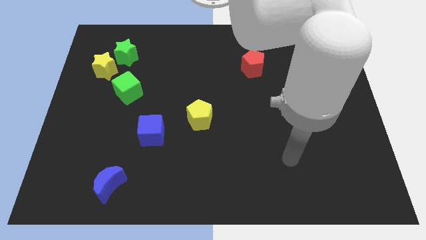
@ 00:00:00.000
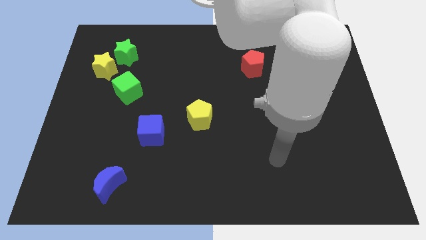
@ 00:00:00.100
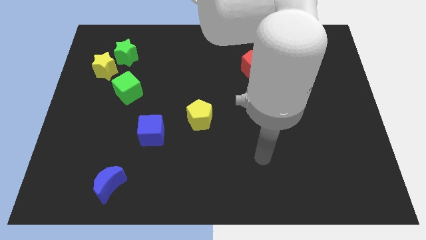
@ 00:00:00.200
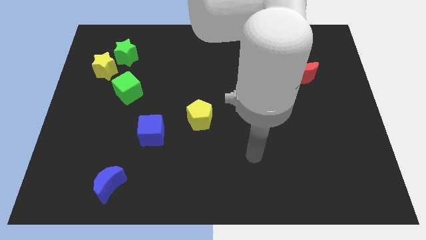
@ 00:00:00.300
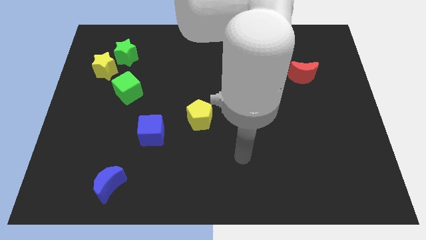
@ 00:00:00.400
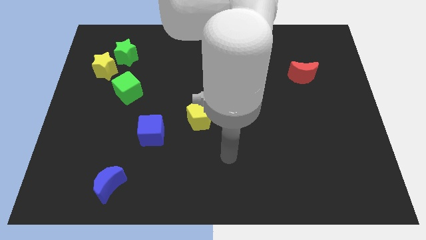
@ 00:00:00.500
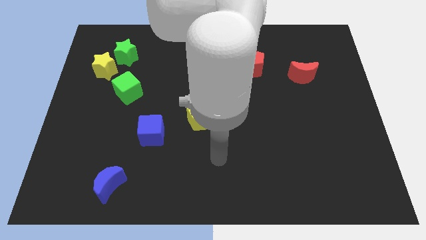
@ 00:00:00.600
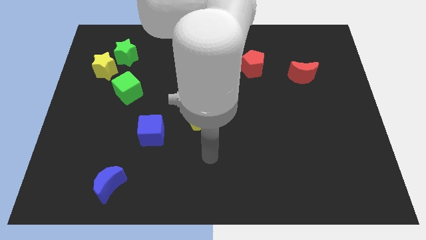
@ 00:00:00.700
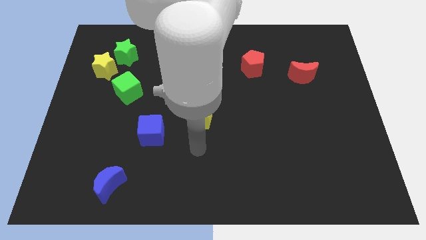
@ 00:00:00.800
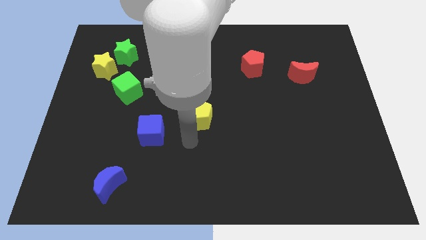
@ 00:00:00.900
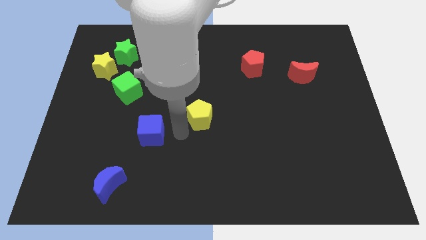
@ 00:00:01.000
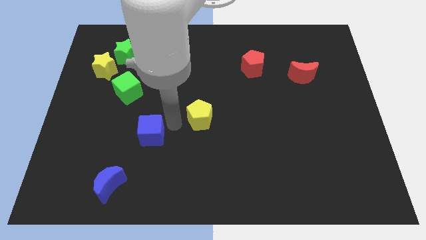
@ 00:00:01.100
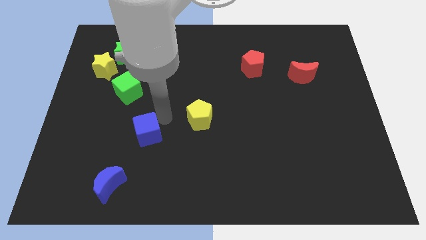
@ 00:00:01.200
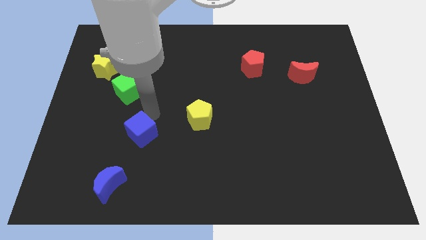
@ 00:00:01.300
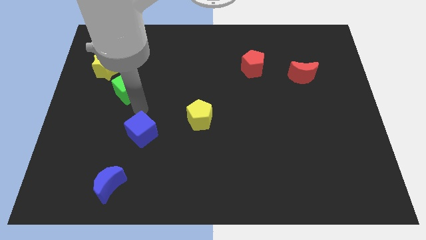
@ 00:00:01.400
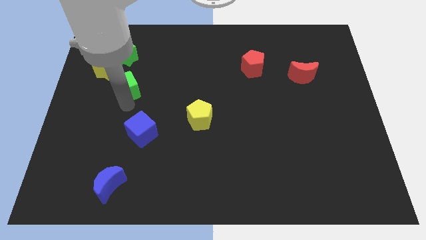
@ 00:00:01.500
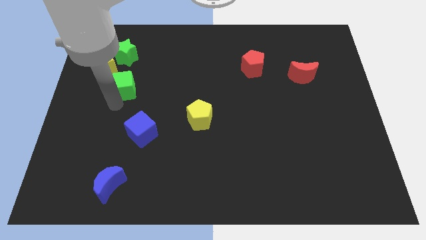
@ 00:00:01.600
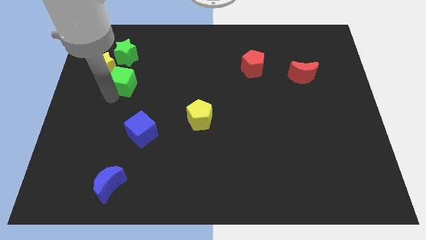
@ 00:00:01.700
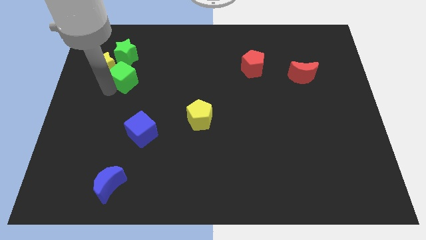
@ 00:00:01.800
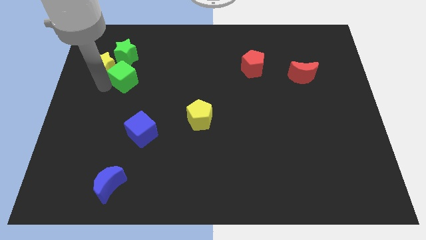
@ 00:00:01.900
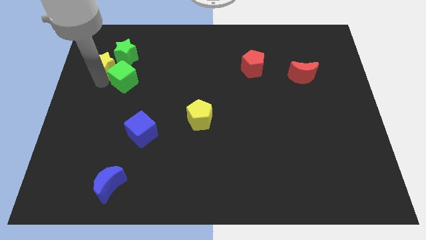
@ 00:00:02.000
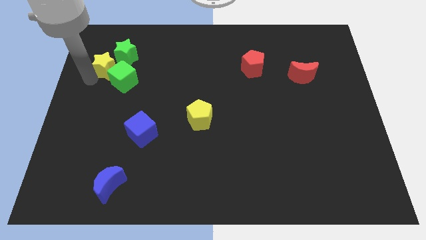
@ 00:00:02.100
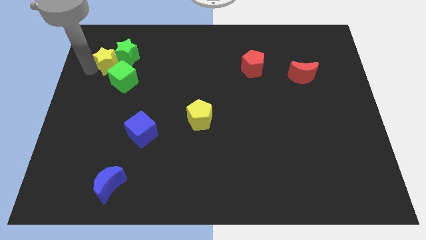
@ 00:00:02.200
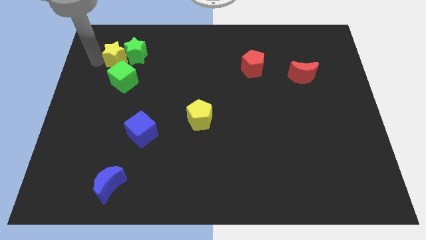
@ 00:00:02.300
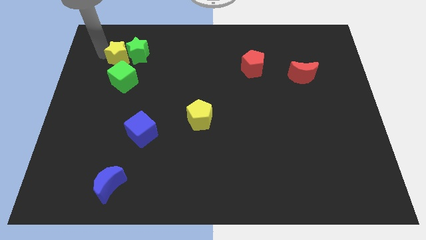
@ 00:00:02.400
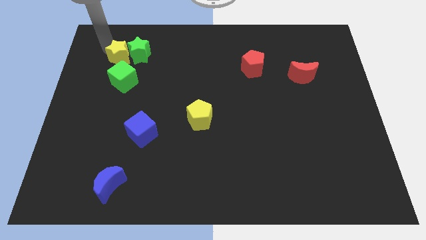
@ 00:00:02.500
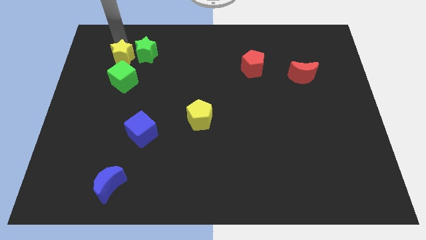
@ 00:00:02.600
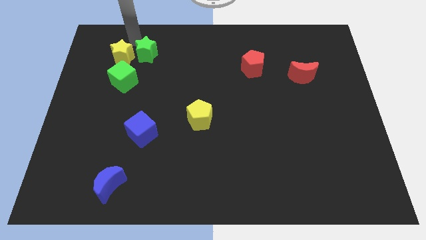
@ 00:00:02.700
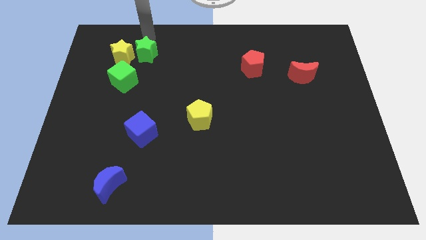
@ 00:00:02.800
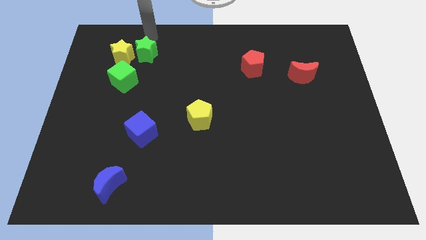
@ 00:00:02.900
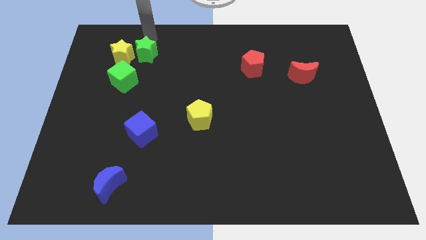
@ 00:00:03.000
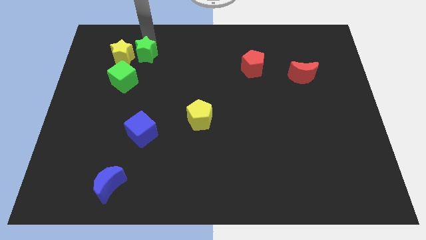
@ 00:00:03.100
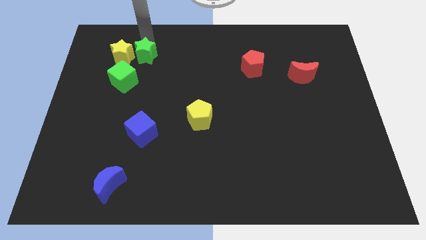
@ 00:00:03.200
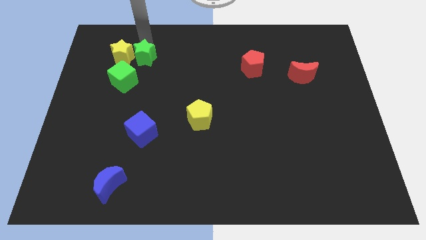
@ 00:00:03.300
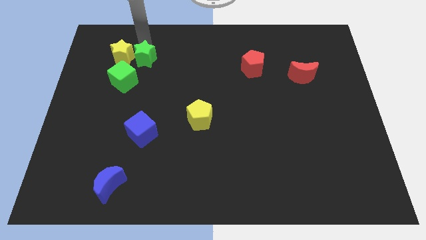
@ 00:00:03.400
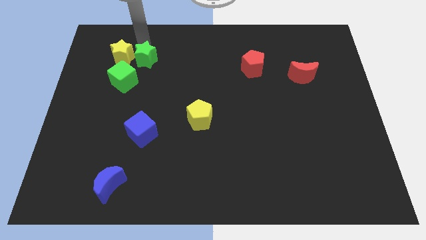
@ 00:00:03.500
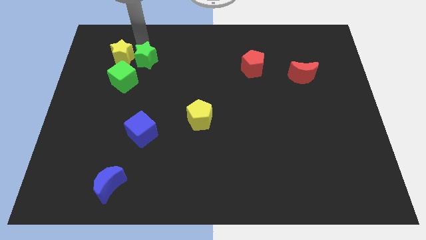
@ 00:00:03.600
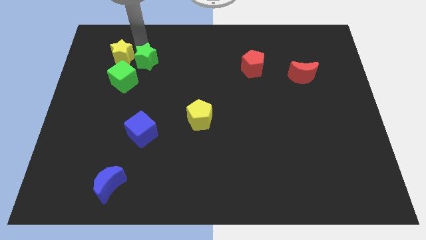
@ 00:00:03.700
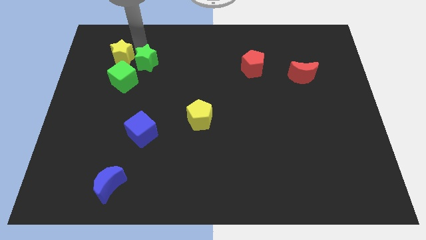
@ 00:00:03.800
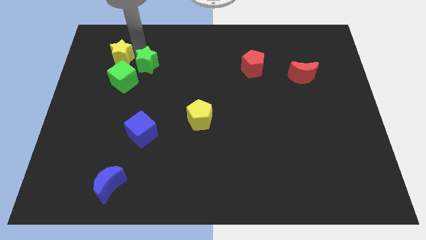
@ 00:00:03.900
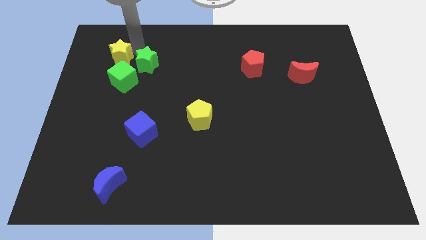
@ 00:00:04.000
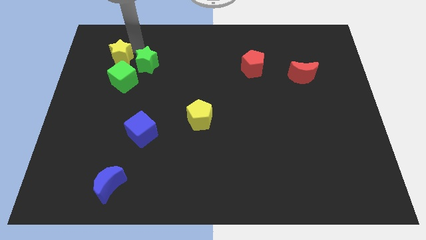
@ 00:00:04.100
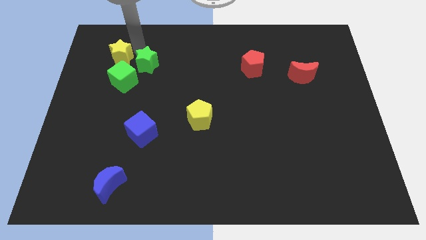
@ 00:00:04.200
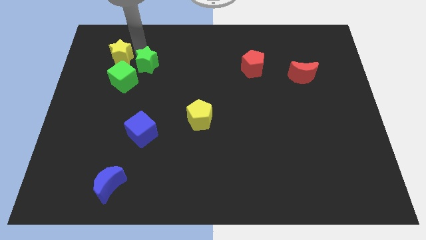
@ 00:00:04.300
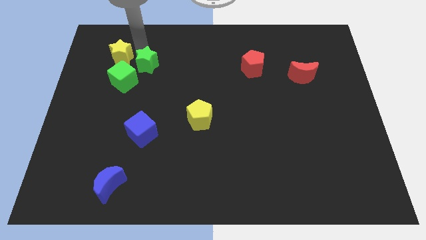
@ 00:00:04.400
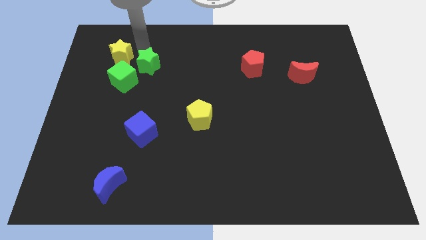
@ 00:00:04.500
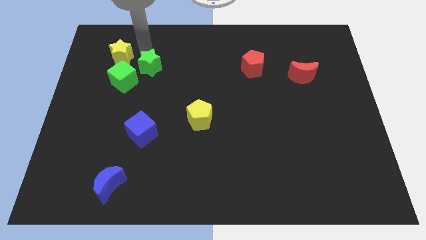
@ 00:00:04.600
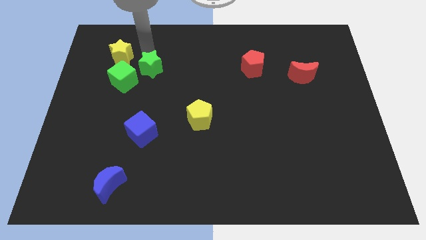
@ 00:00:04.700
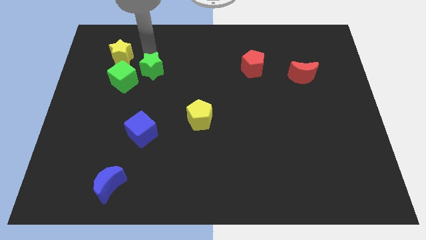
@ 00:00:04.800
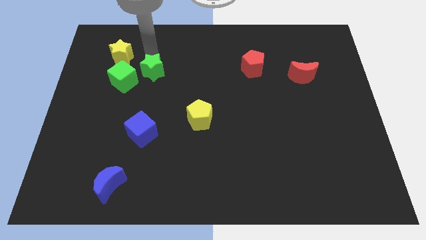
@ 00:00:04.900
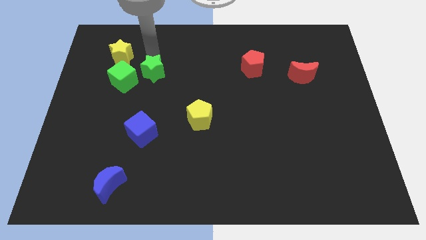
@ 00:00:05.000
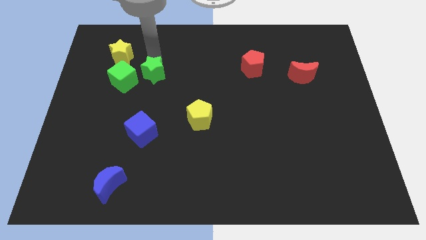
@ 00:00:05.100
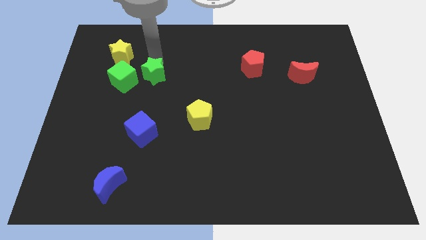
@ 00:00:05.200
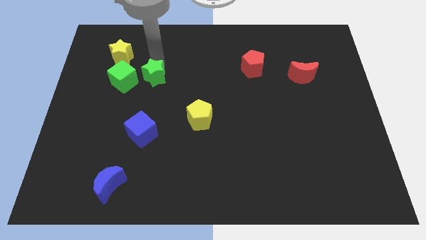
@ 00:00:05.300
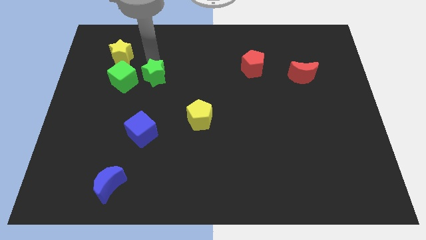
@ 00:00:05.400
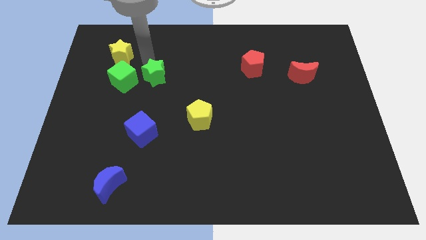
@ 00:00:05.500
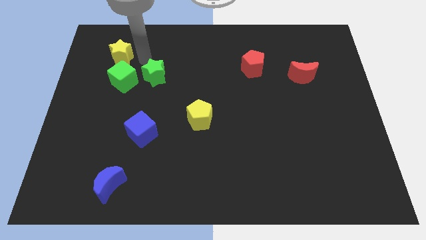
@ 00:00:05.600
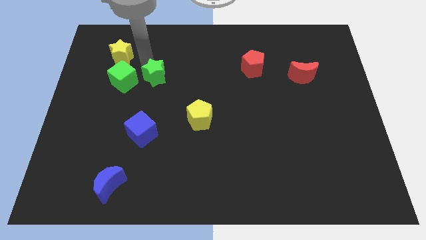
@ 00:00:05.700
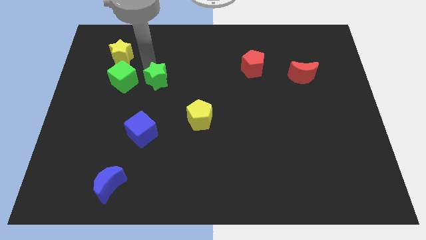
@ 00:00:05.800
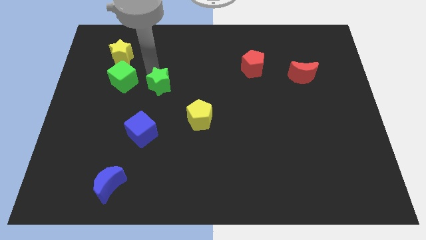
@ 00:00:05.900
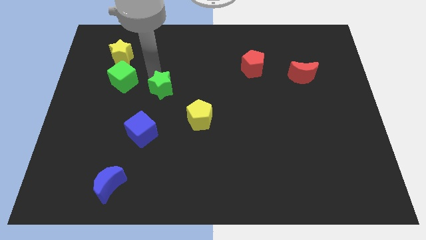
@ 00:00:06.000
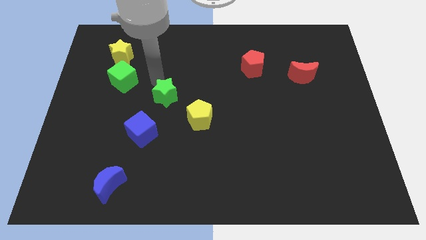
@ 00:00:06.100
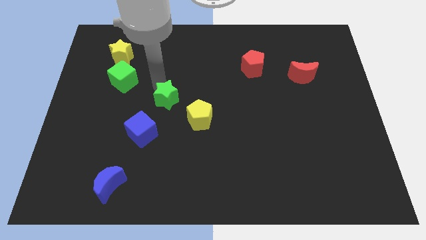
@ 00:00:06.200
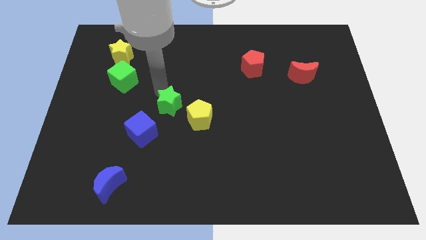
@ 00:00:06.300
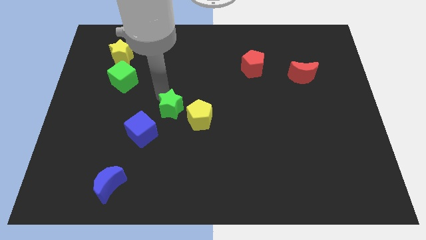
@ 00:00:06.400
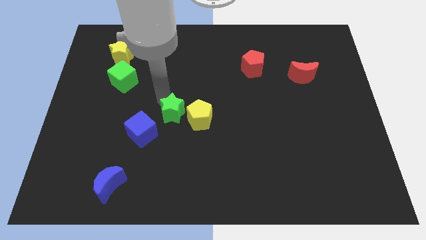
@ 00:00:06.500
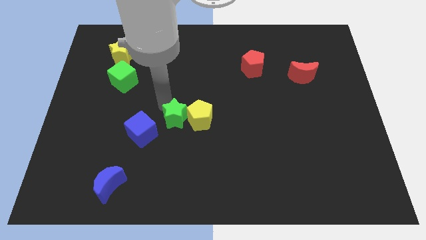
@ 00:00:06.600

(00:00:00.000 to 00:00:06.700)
push the green star to the yellow pentagon
